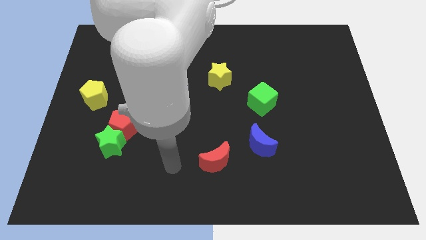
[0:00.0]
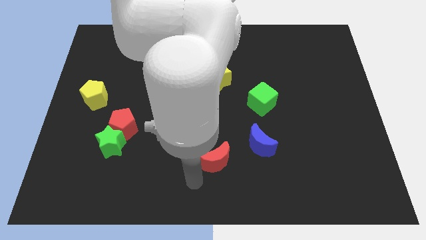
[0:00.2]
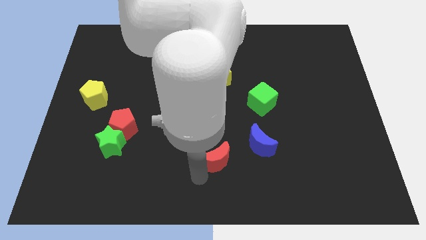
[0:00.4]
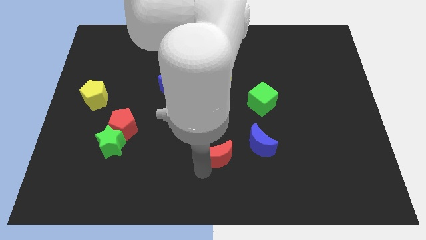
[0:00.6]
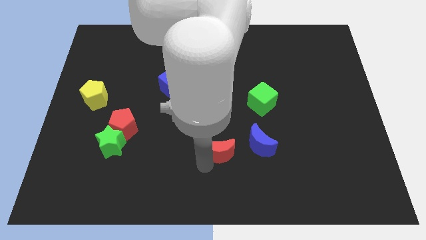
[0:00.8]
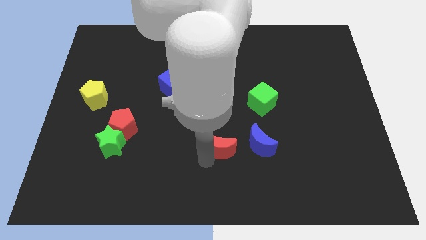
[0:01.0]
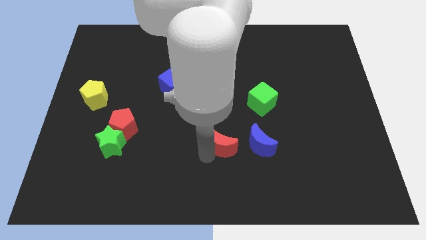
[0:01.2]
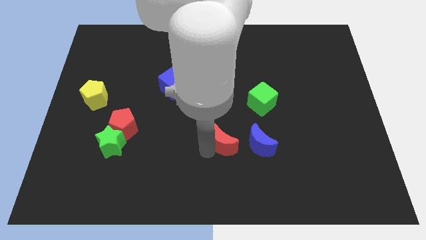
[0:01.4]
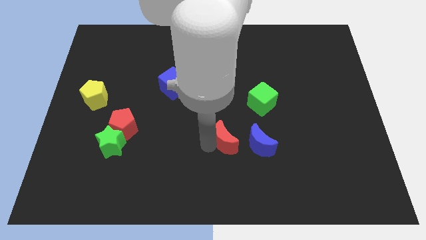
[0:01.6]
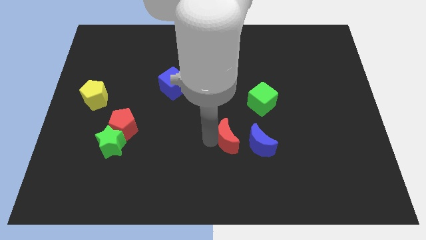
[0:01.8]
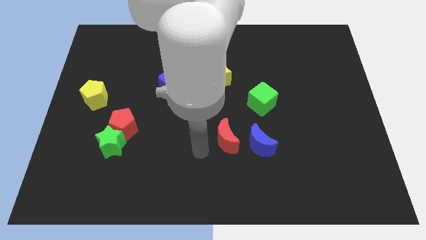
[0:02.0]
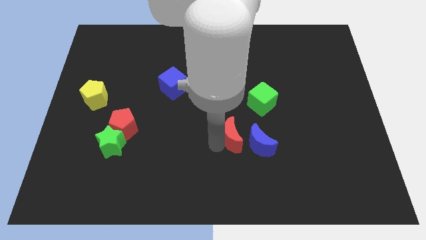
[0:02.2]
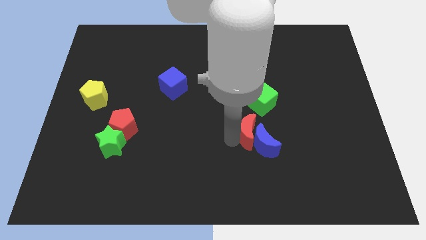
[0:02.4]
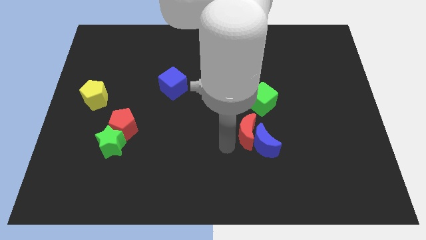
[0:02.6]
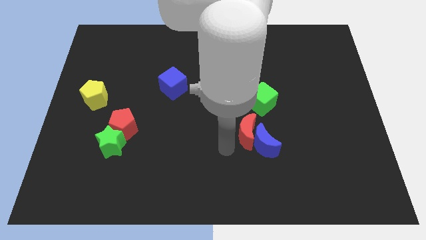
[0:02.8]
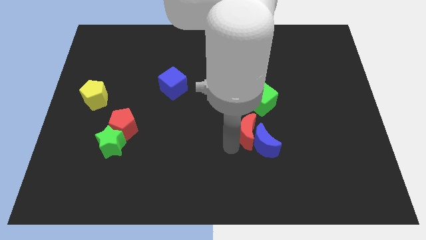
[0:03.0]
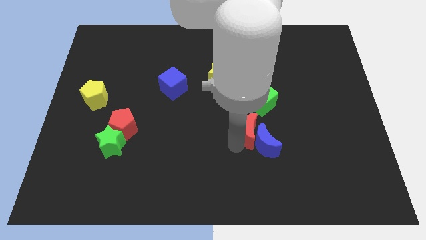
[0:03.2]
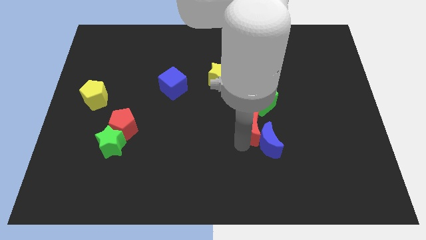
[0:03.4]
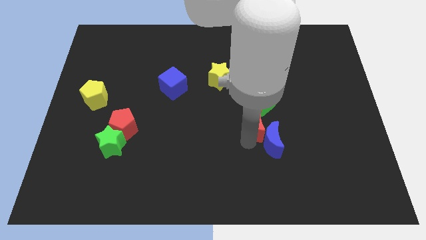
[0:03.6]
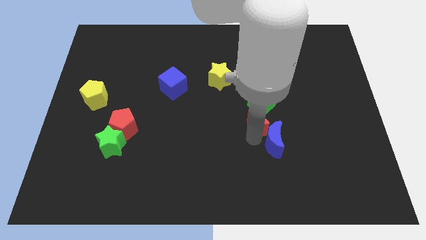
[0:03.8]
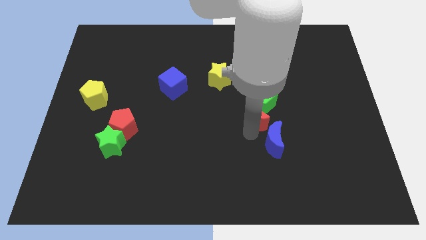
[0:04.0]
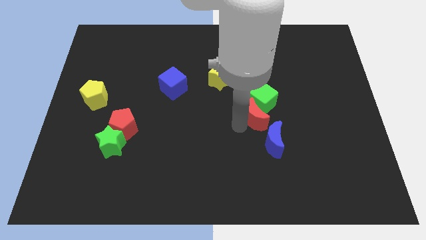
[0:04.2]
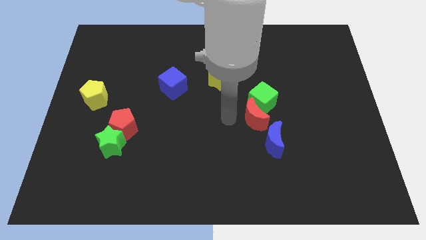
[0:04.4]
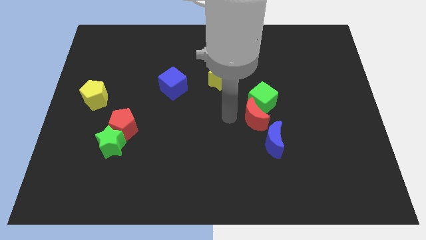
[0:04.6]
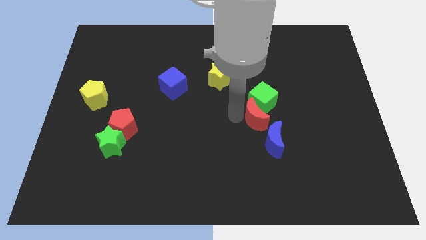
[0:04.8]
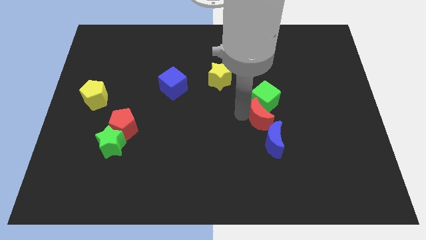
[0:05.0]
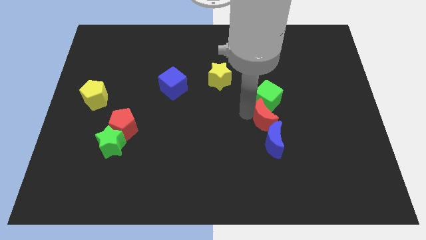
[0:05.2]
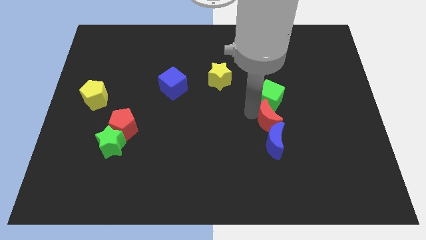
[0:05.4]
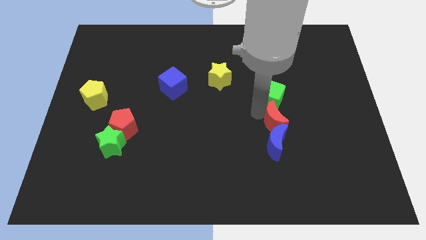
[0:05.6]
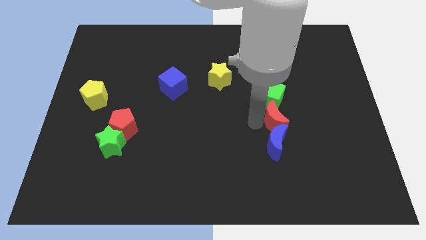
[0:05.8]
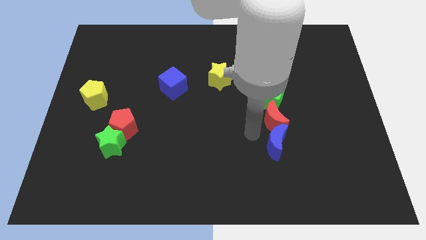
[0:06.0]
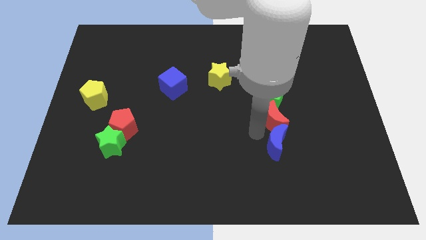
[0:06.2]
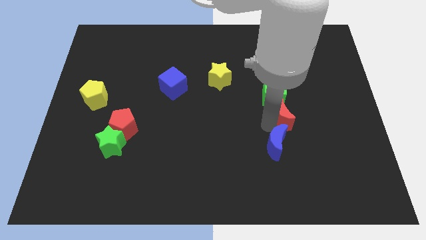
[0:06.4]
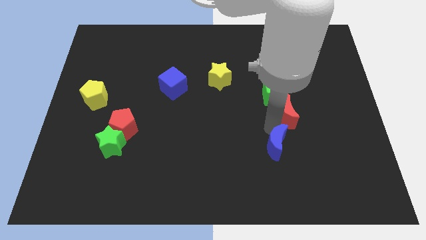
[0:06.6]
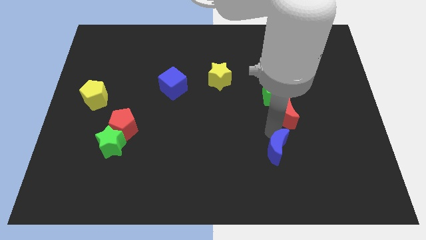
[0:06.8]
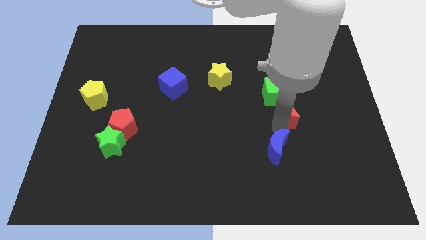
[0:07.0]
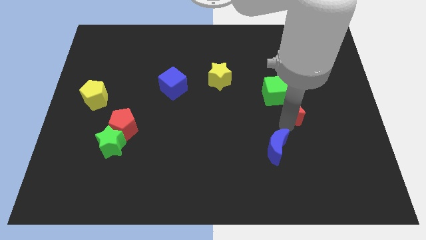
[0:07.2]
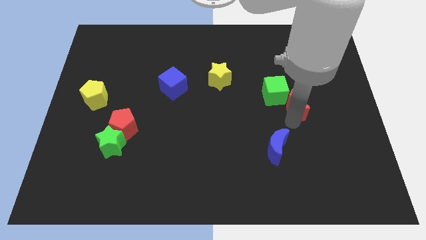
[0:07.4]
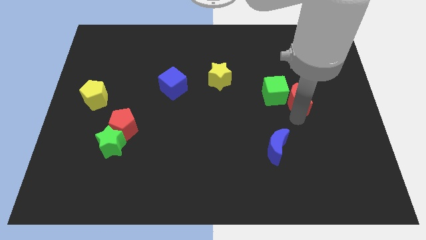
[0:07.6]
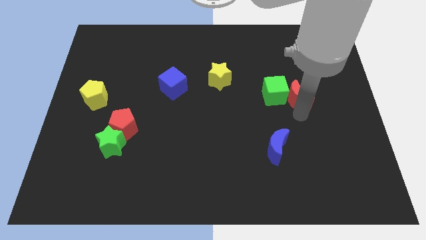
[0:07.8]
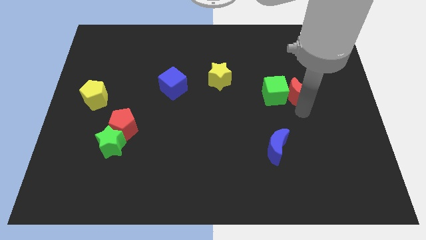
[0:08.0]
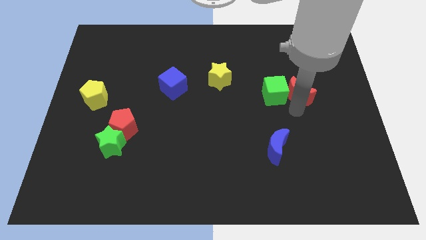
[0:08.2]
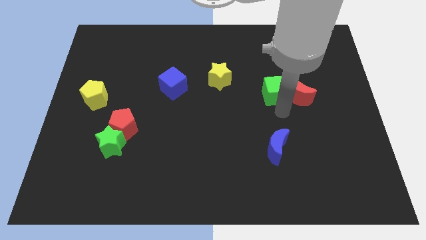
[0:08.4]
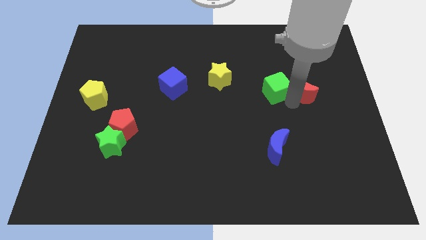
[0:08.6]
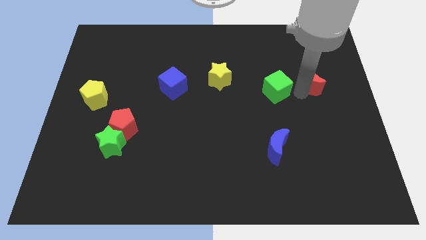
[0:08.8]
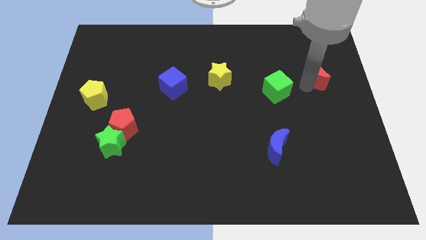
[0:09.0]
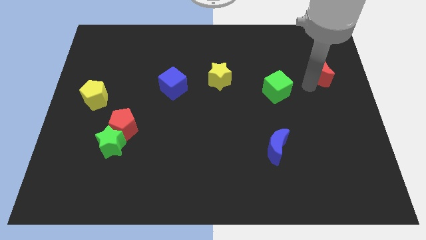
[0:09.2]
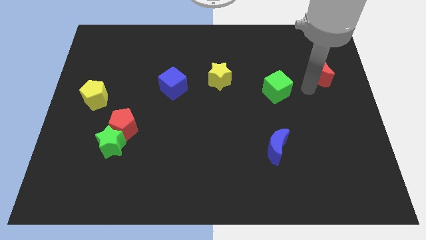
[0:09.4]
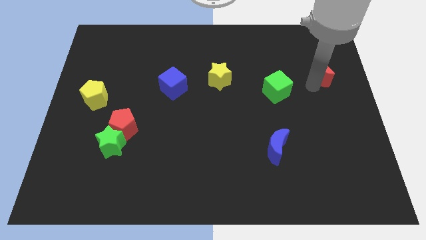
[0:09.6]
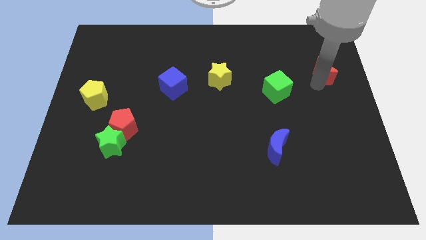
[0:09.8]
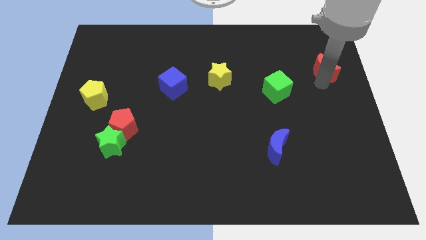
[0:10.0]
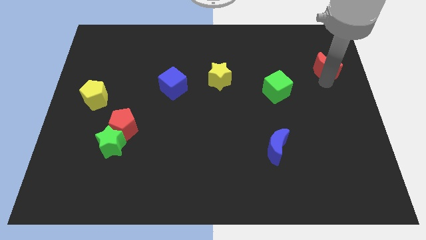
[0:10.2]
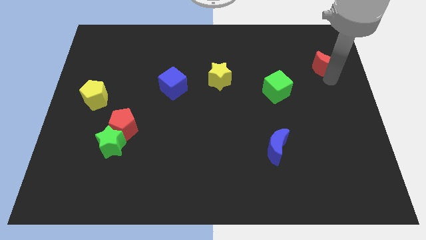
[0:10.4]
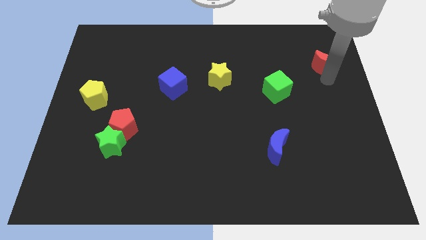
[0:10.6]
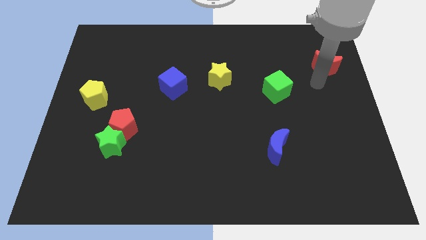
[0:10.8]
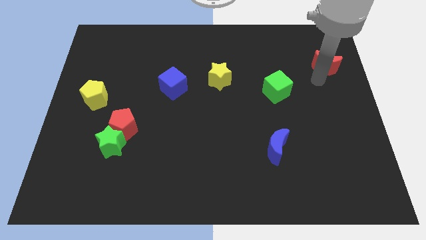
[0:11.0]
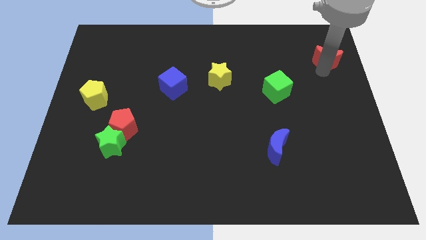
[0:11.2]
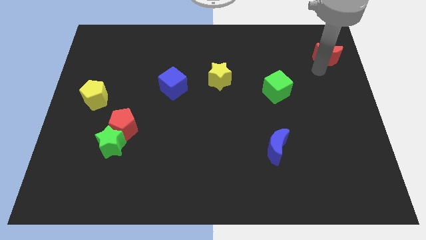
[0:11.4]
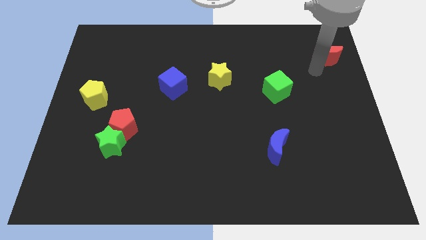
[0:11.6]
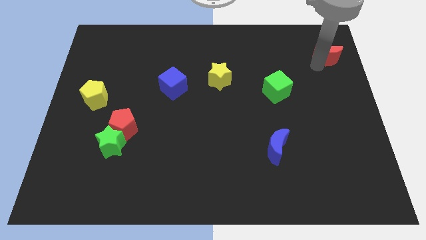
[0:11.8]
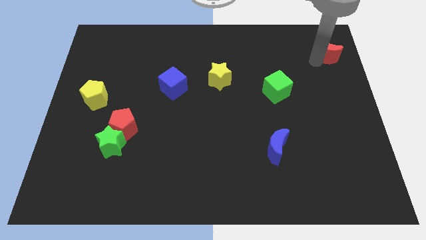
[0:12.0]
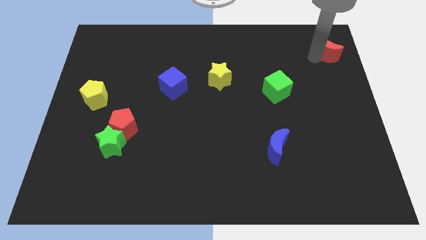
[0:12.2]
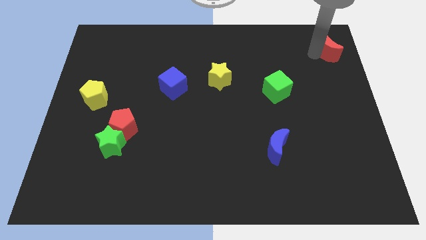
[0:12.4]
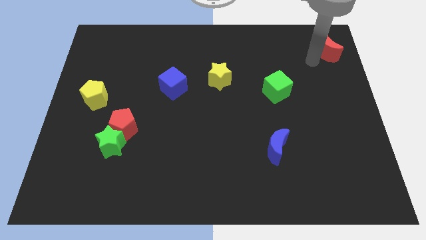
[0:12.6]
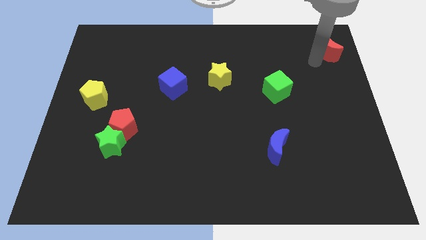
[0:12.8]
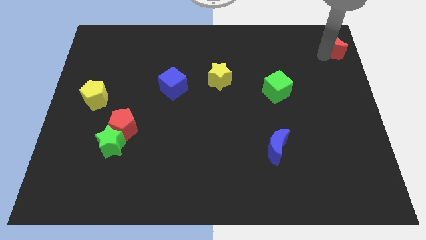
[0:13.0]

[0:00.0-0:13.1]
push the red moon to the top right corner
